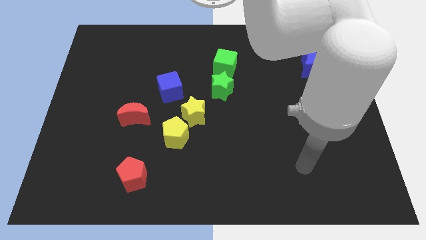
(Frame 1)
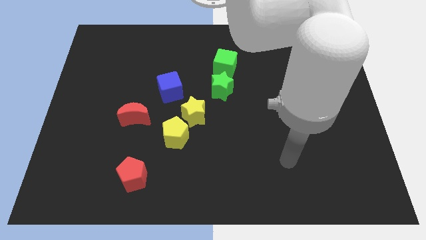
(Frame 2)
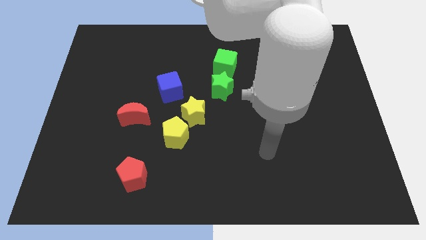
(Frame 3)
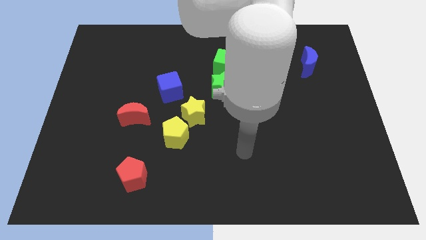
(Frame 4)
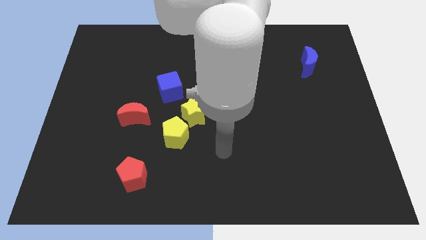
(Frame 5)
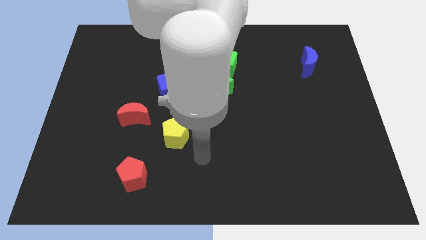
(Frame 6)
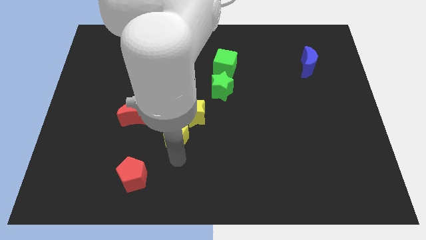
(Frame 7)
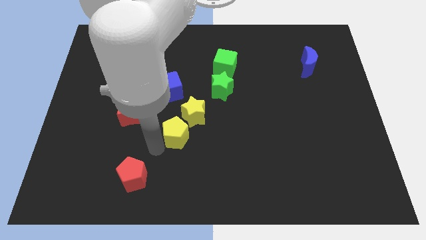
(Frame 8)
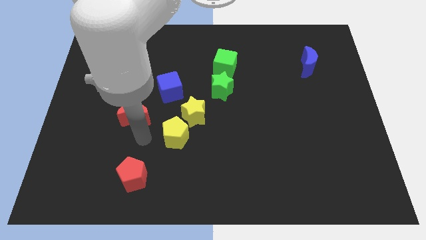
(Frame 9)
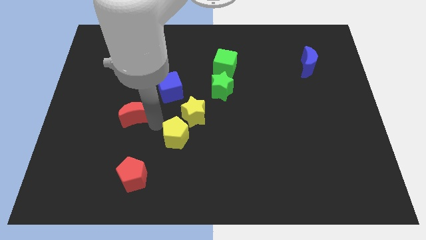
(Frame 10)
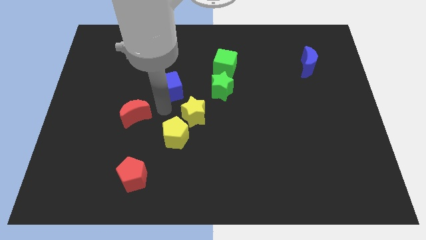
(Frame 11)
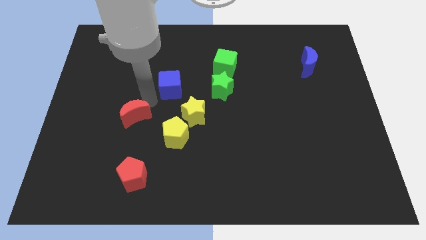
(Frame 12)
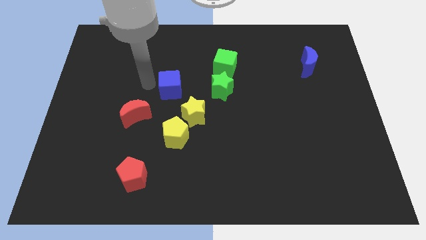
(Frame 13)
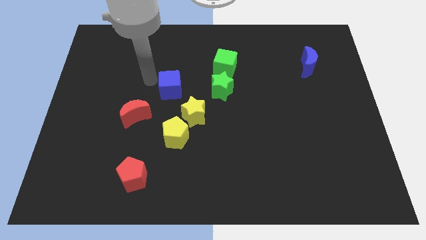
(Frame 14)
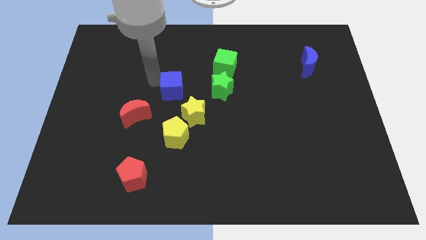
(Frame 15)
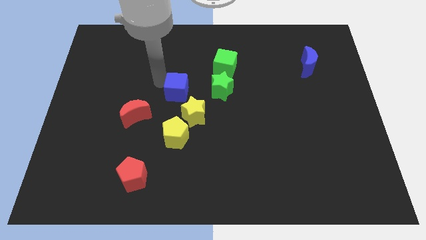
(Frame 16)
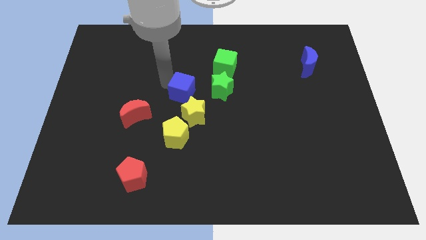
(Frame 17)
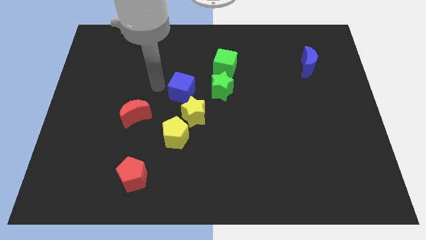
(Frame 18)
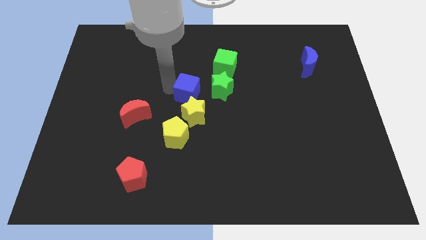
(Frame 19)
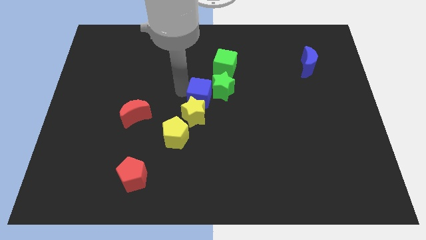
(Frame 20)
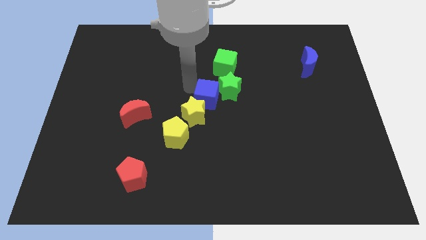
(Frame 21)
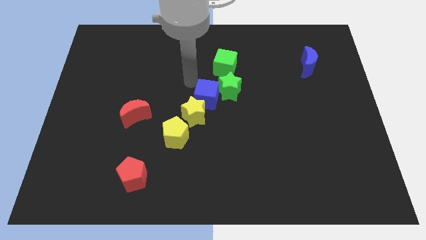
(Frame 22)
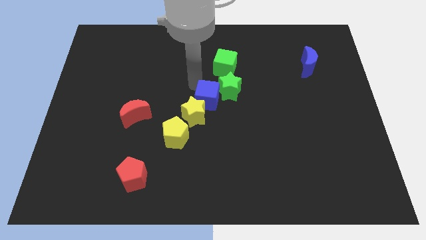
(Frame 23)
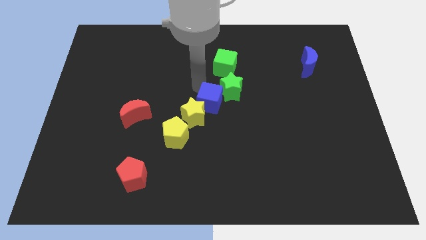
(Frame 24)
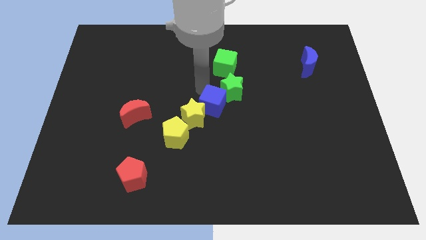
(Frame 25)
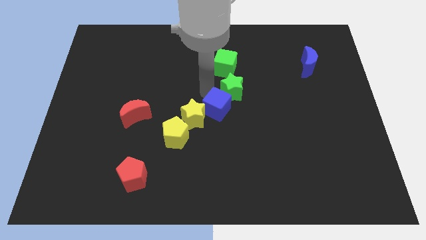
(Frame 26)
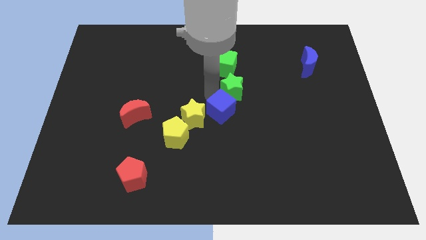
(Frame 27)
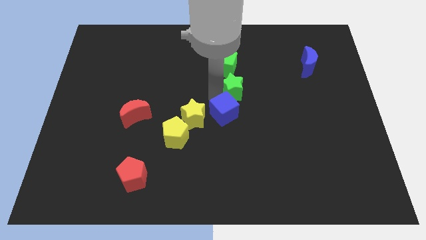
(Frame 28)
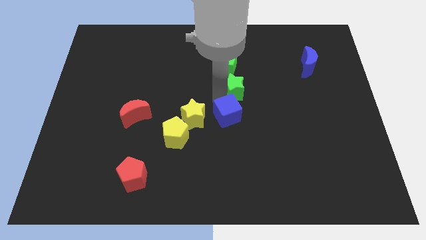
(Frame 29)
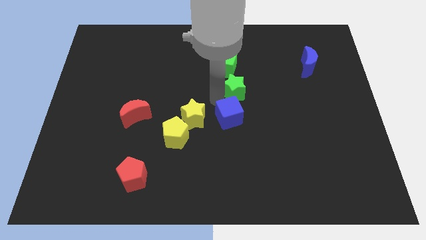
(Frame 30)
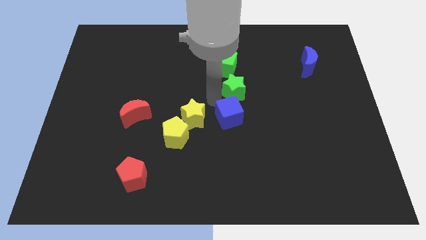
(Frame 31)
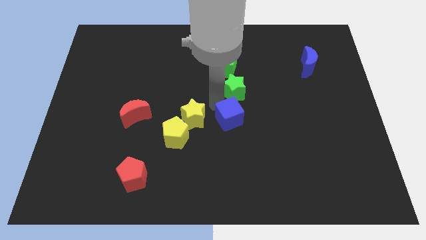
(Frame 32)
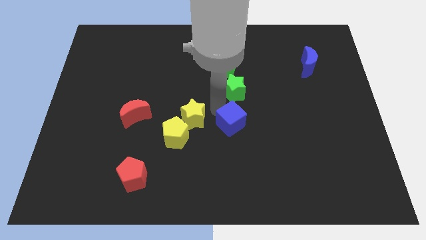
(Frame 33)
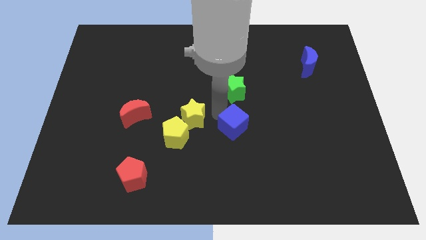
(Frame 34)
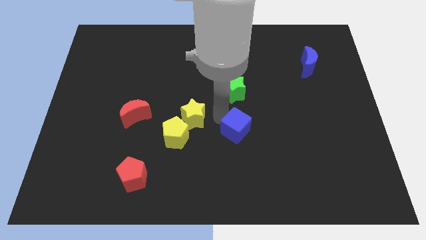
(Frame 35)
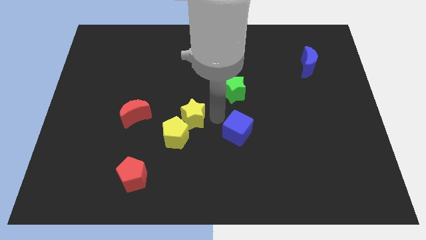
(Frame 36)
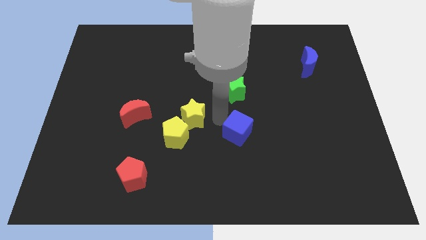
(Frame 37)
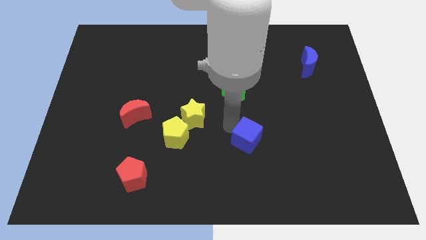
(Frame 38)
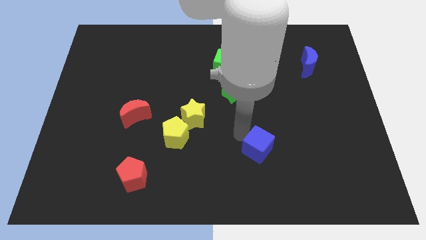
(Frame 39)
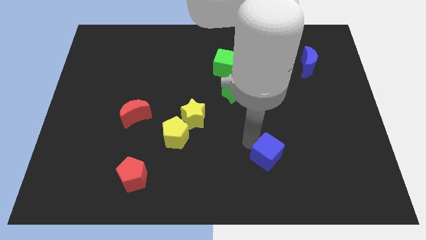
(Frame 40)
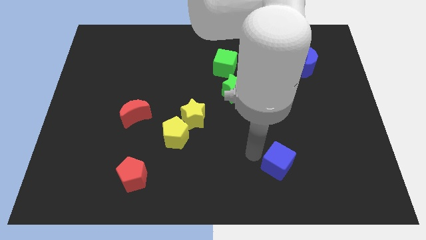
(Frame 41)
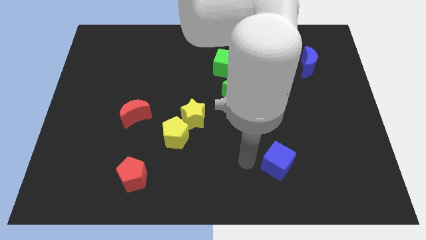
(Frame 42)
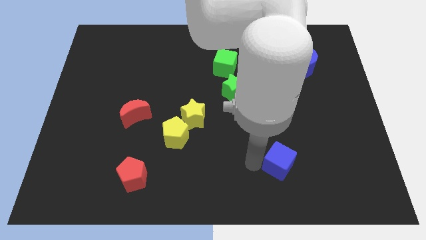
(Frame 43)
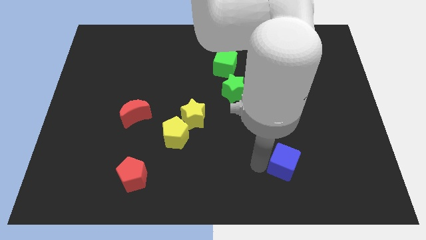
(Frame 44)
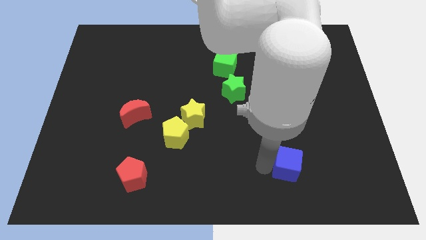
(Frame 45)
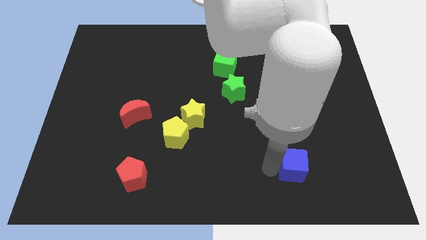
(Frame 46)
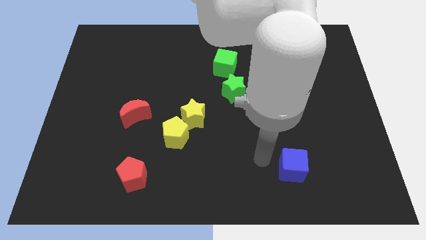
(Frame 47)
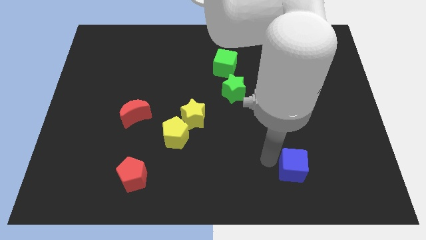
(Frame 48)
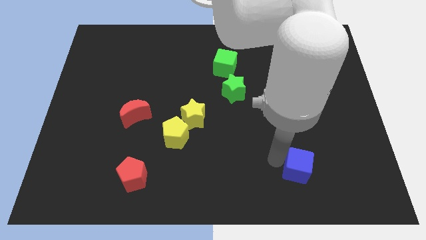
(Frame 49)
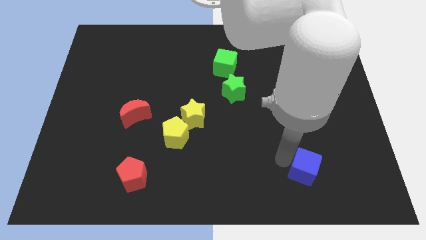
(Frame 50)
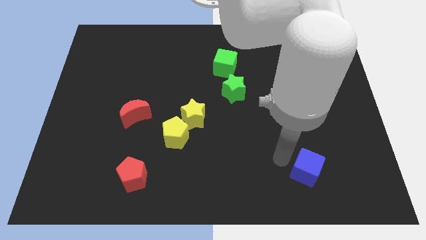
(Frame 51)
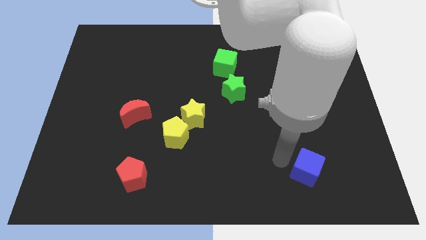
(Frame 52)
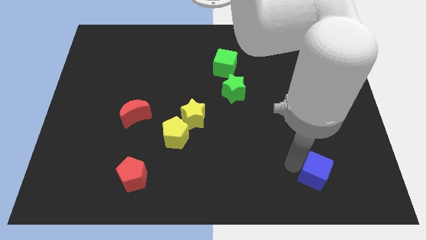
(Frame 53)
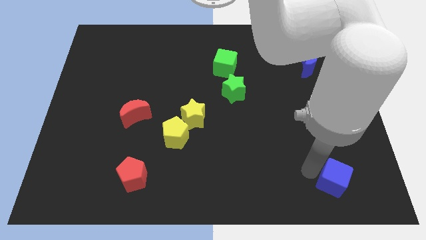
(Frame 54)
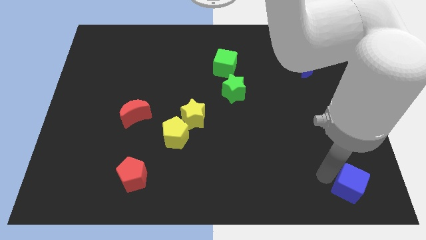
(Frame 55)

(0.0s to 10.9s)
slide the blue cube to the bottom right of the board

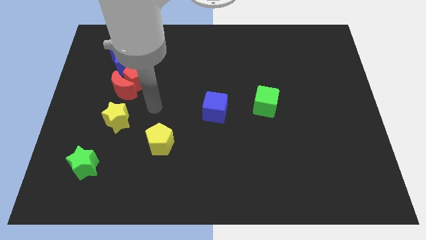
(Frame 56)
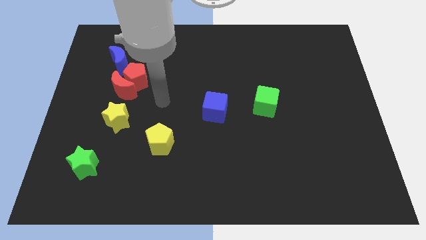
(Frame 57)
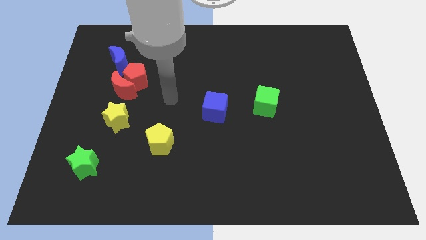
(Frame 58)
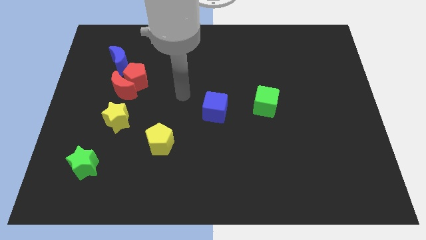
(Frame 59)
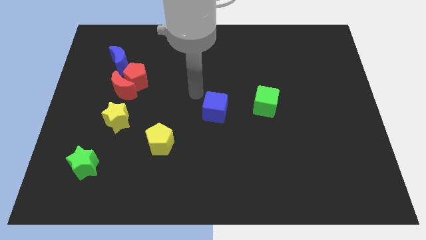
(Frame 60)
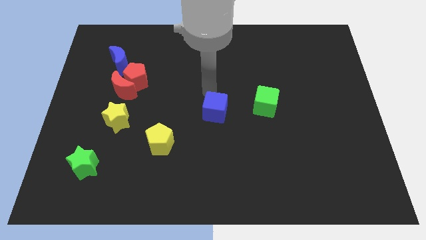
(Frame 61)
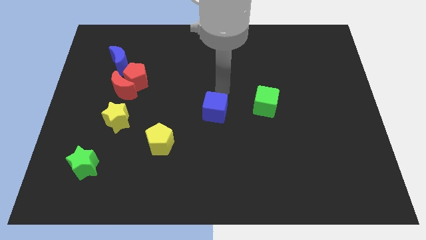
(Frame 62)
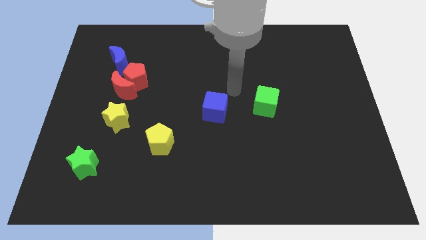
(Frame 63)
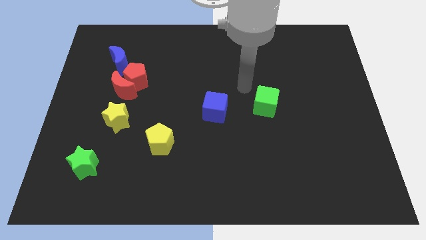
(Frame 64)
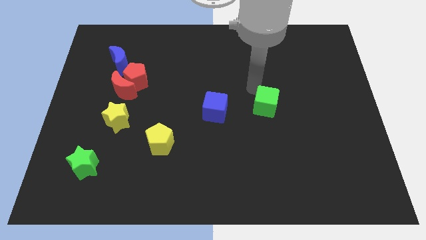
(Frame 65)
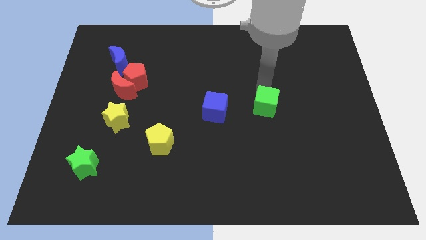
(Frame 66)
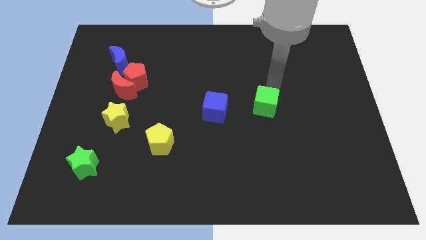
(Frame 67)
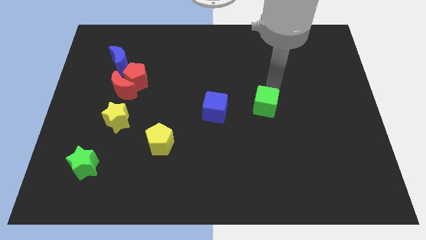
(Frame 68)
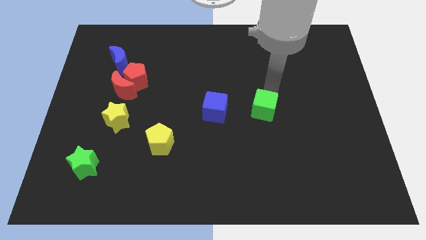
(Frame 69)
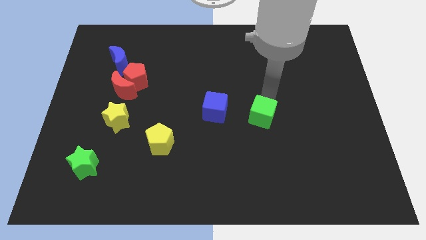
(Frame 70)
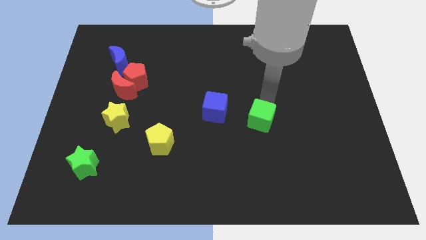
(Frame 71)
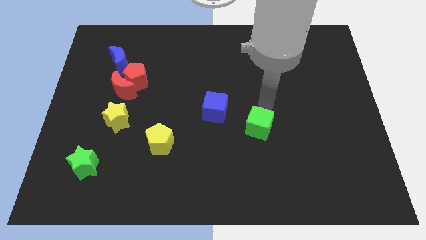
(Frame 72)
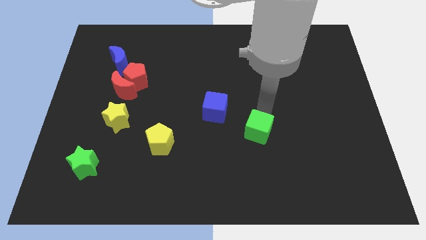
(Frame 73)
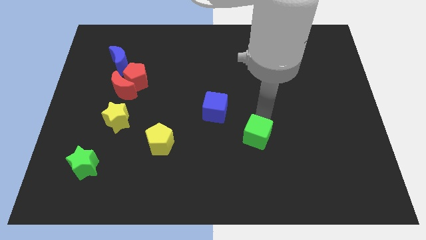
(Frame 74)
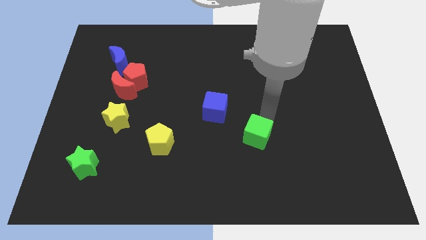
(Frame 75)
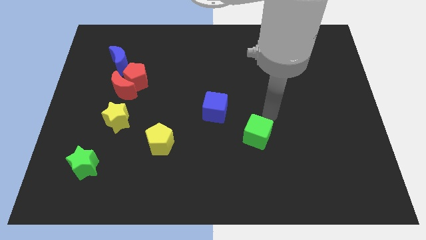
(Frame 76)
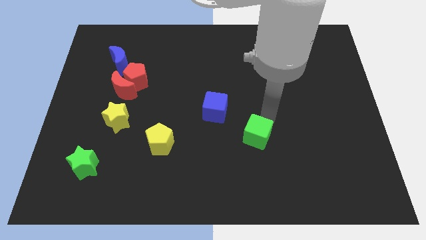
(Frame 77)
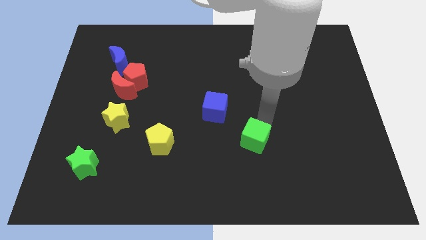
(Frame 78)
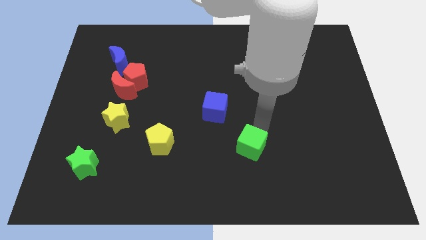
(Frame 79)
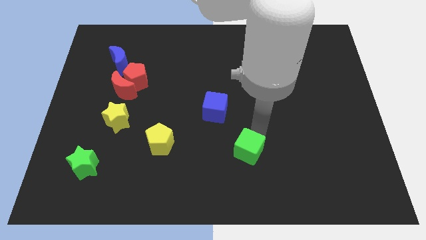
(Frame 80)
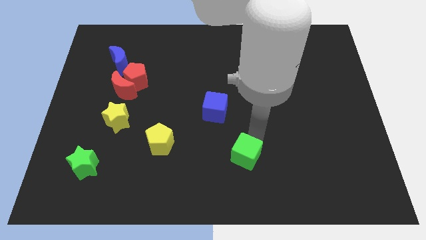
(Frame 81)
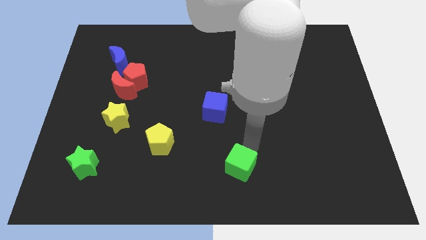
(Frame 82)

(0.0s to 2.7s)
slide the green cube to the bottom side
